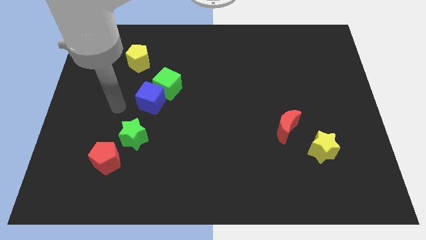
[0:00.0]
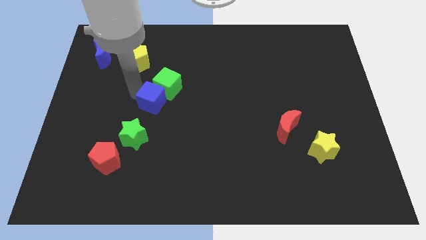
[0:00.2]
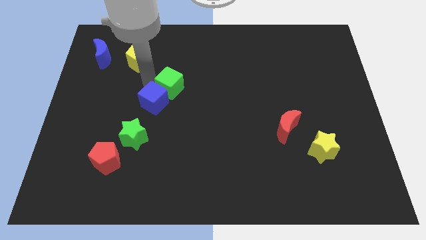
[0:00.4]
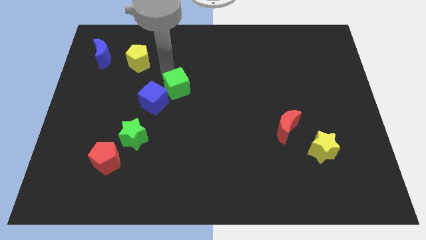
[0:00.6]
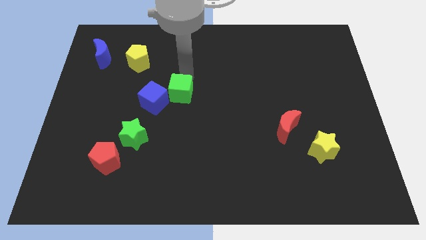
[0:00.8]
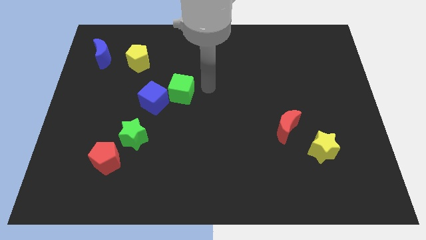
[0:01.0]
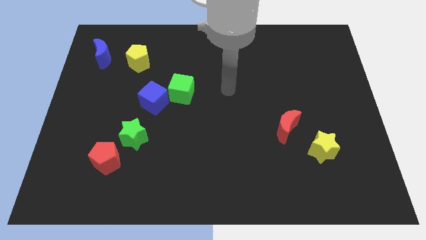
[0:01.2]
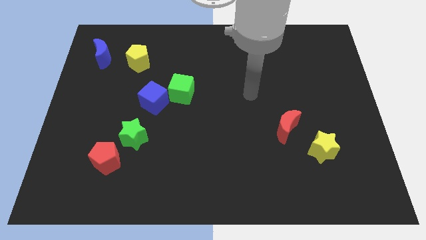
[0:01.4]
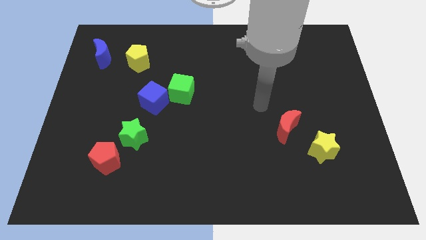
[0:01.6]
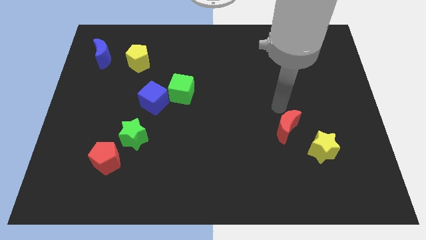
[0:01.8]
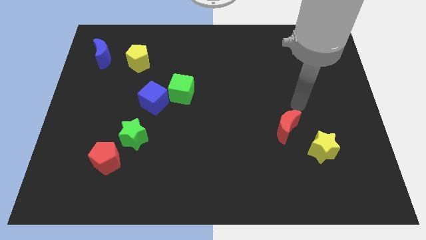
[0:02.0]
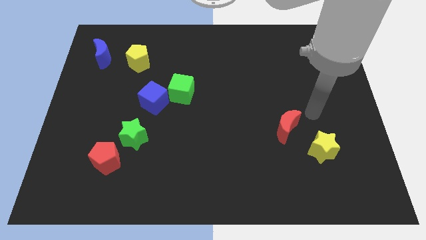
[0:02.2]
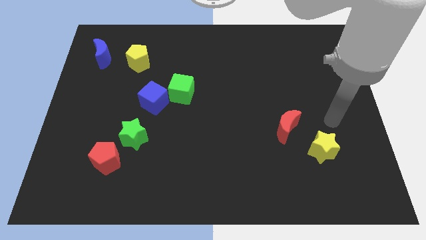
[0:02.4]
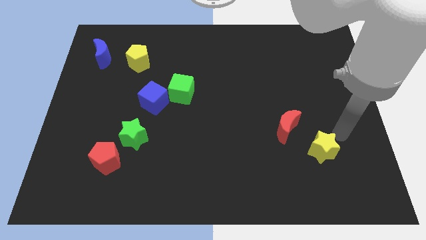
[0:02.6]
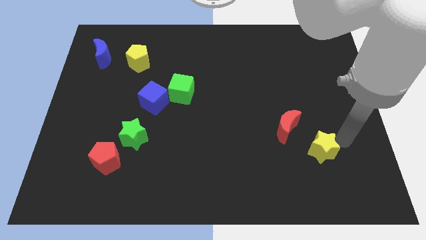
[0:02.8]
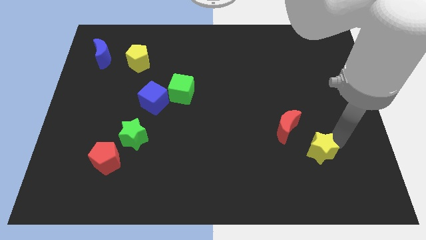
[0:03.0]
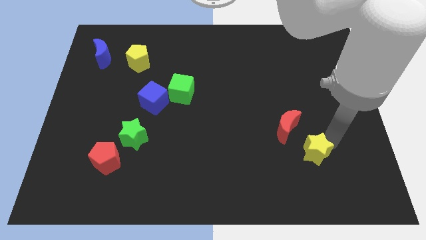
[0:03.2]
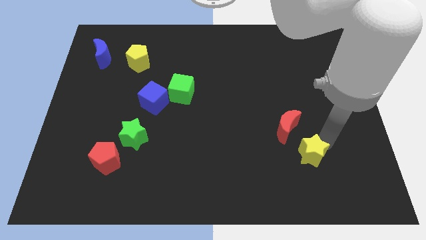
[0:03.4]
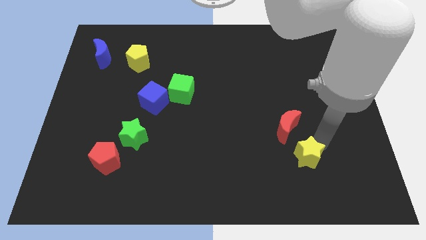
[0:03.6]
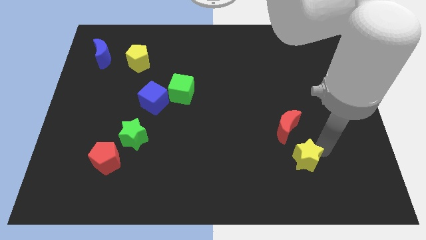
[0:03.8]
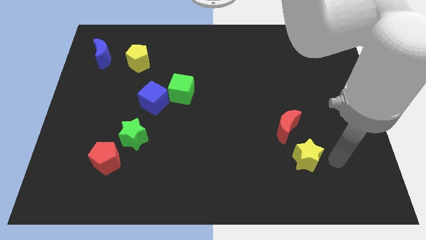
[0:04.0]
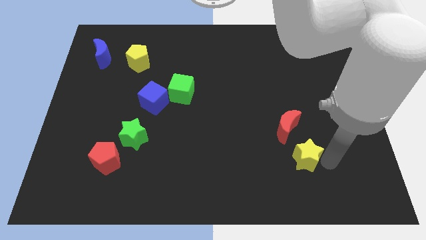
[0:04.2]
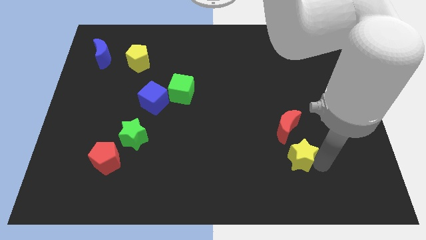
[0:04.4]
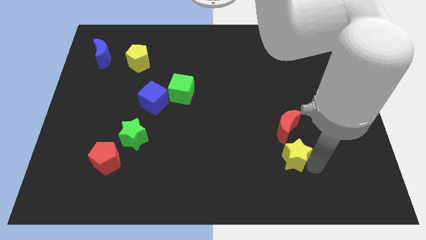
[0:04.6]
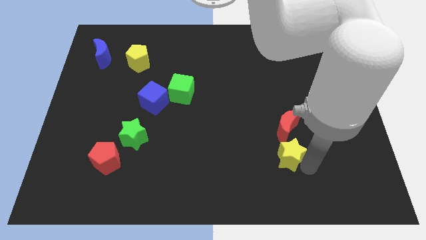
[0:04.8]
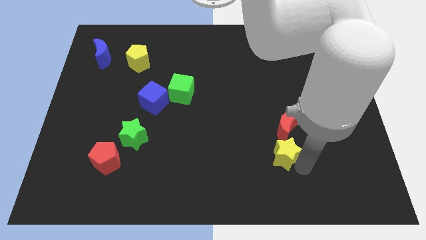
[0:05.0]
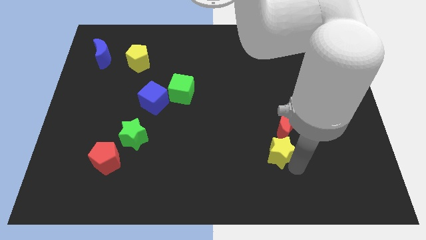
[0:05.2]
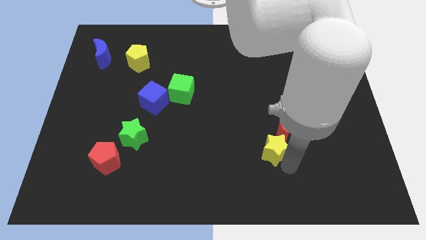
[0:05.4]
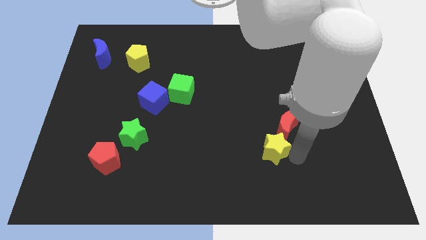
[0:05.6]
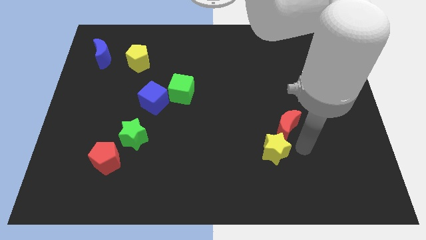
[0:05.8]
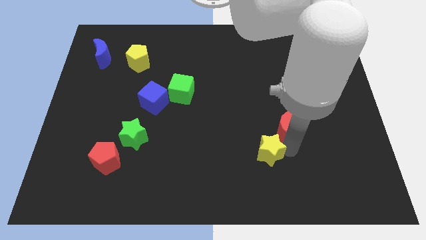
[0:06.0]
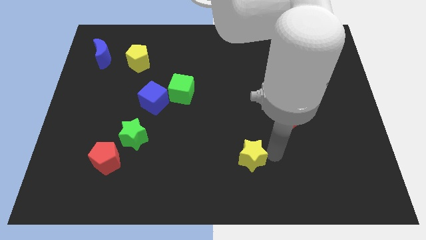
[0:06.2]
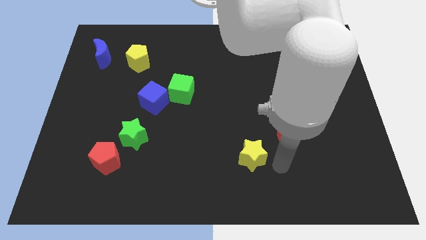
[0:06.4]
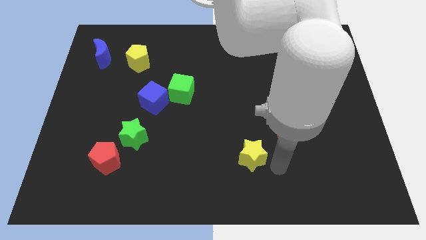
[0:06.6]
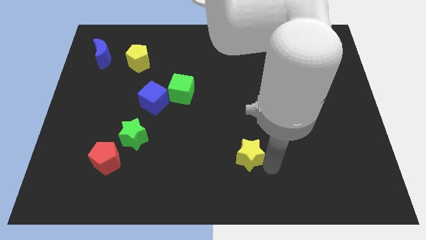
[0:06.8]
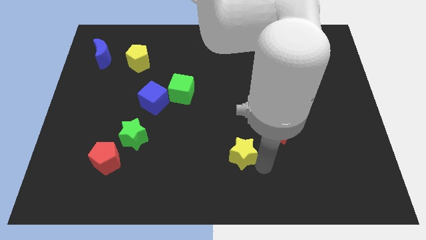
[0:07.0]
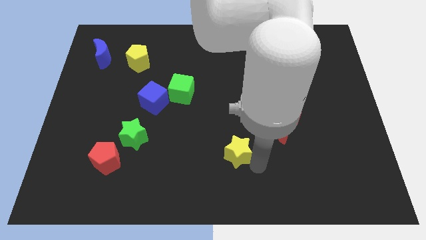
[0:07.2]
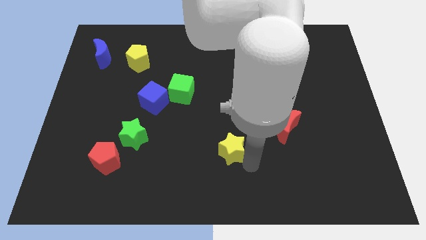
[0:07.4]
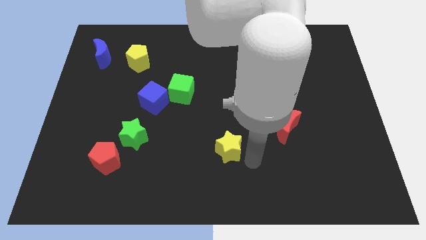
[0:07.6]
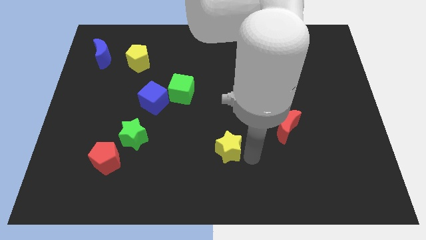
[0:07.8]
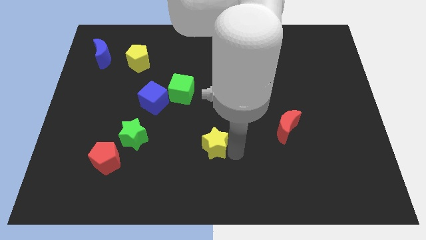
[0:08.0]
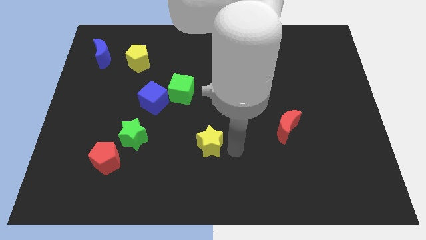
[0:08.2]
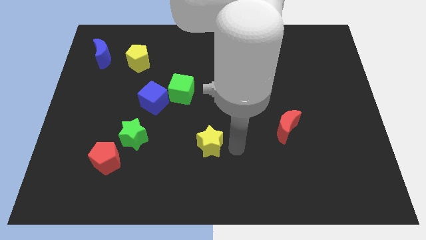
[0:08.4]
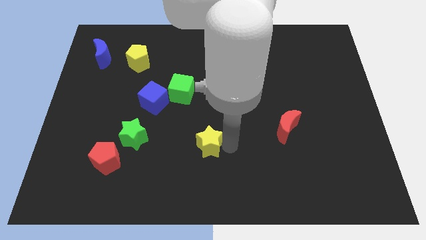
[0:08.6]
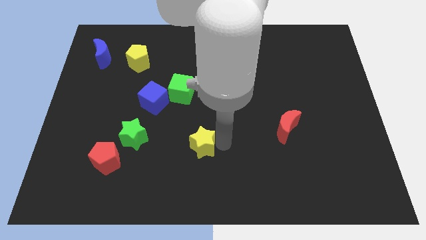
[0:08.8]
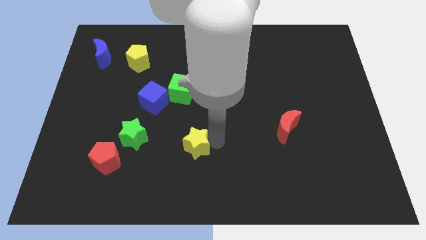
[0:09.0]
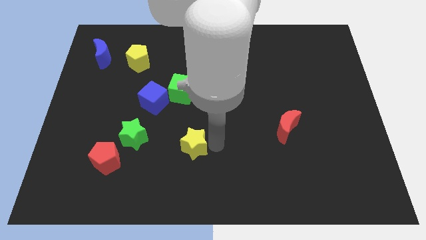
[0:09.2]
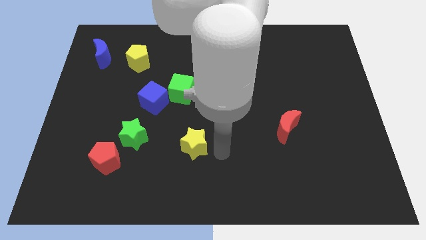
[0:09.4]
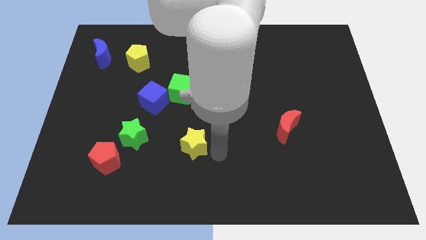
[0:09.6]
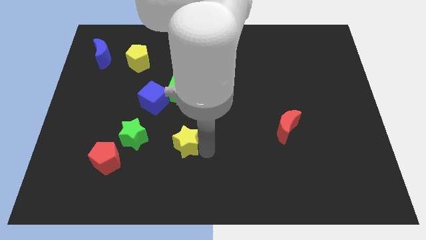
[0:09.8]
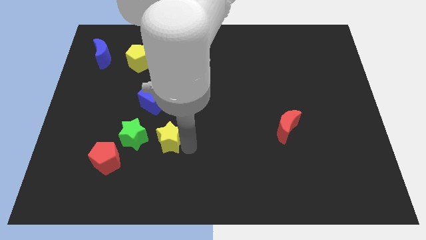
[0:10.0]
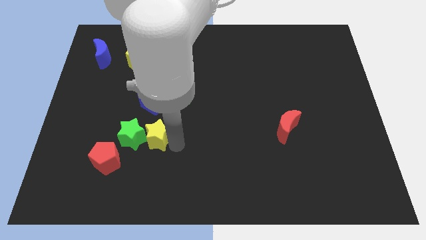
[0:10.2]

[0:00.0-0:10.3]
push the yellow star to the green star

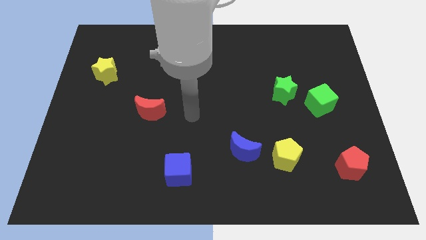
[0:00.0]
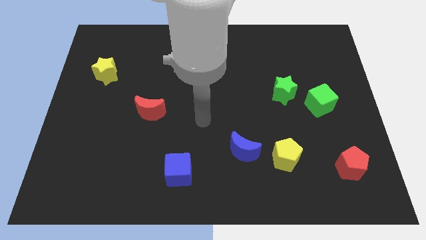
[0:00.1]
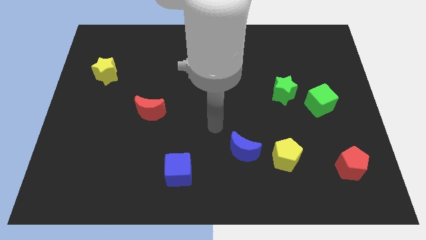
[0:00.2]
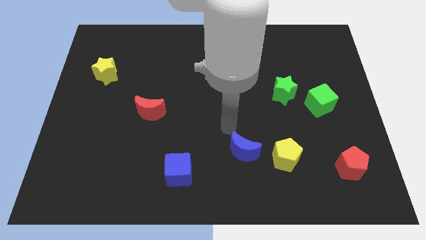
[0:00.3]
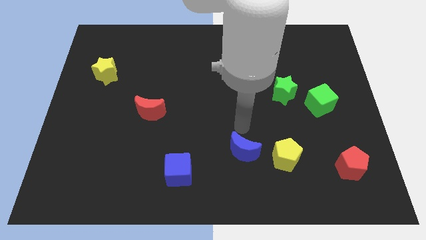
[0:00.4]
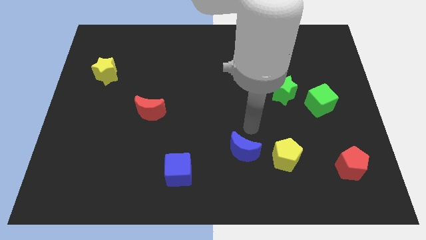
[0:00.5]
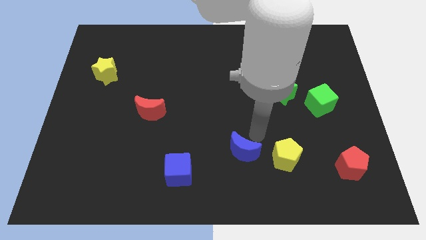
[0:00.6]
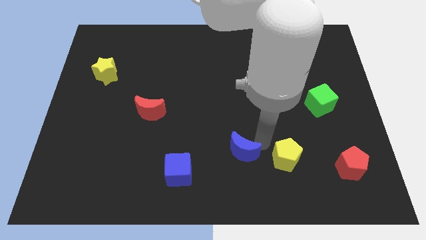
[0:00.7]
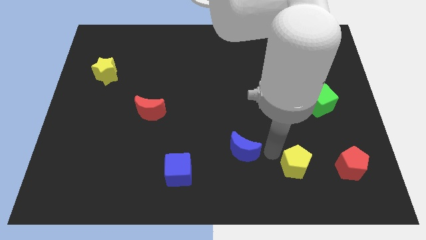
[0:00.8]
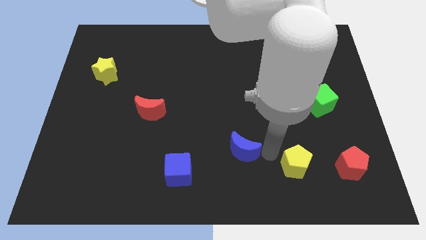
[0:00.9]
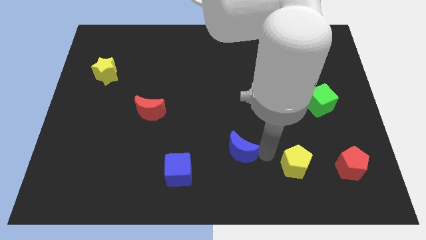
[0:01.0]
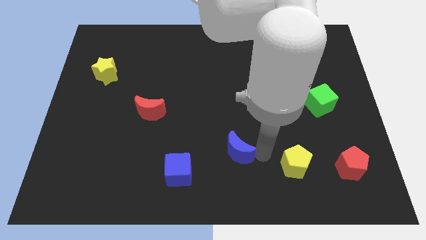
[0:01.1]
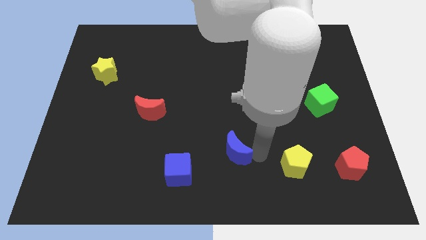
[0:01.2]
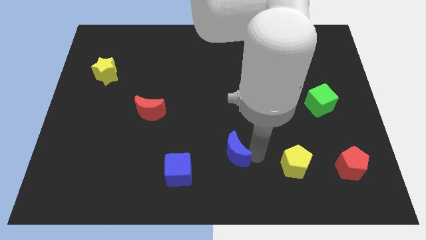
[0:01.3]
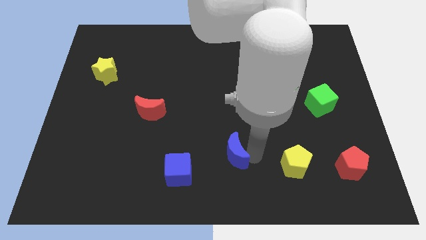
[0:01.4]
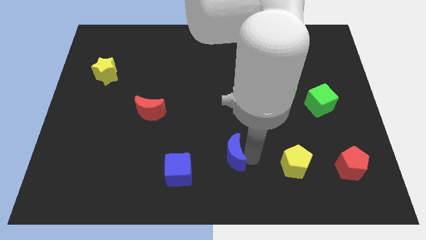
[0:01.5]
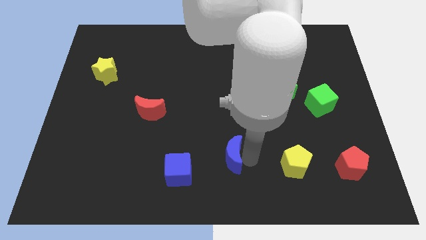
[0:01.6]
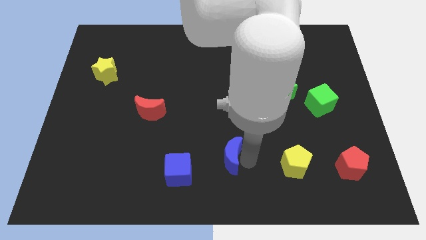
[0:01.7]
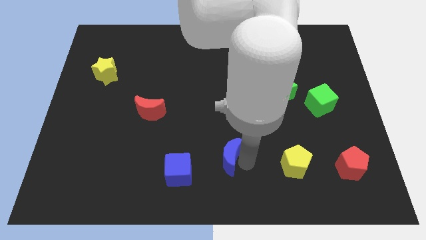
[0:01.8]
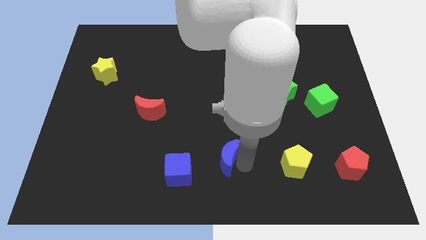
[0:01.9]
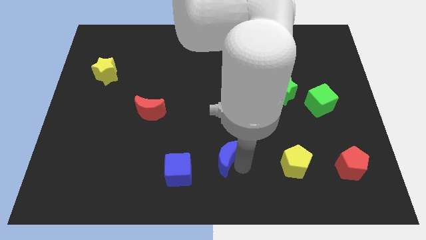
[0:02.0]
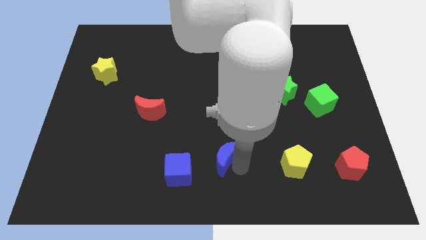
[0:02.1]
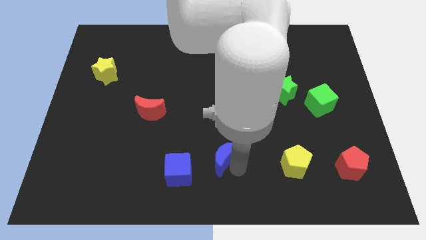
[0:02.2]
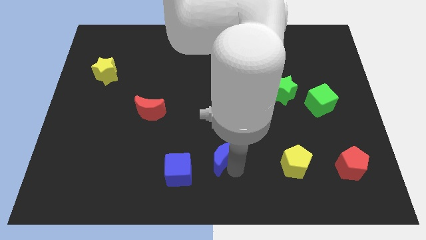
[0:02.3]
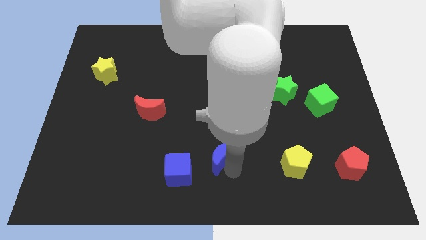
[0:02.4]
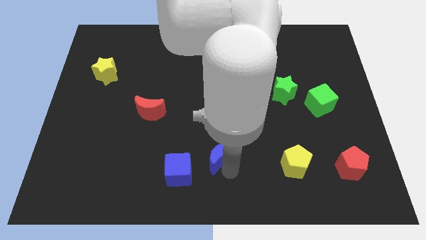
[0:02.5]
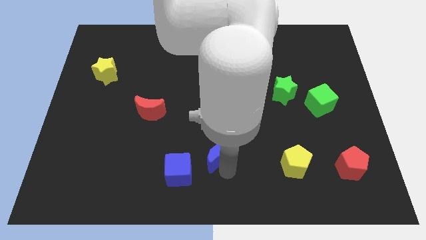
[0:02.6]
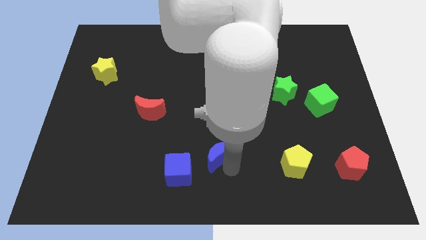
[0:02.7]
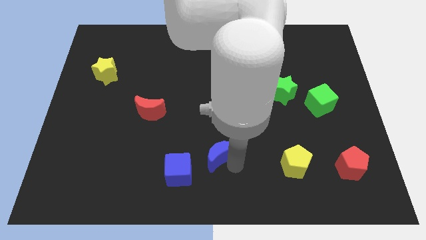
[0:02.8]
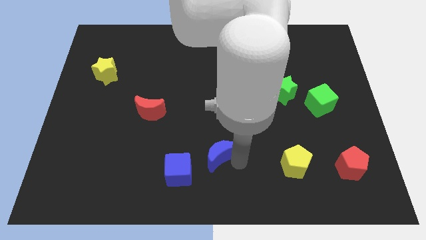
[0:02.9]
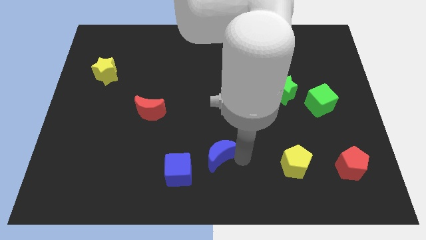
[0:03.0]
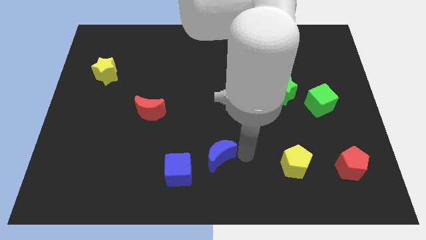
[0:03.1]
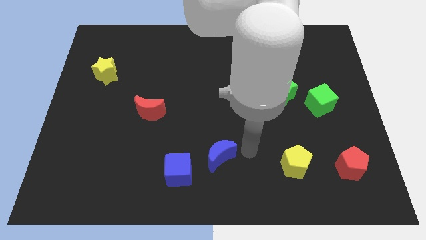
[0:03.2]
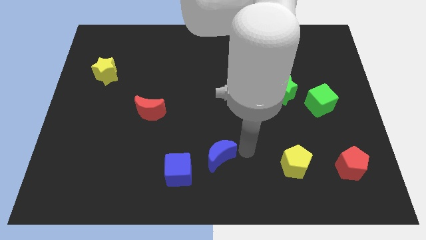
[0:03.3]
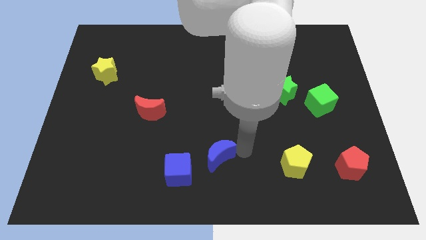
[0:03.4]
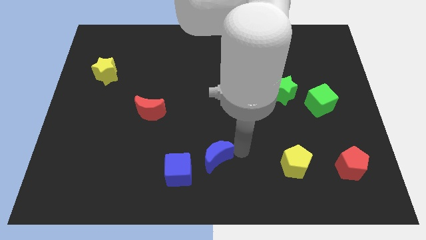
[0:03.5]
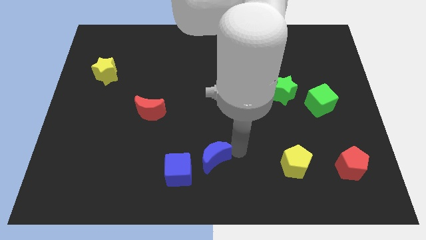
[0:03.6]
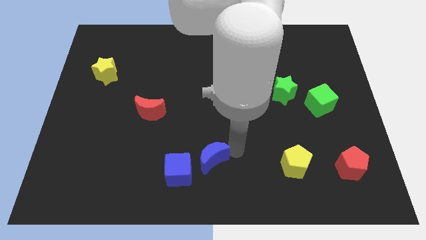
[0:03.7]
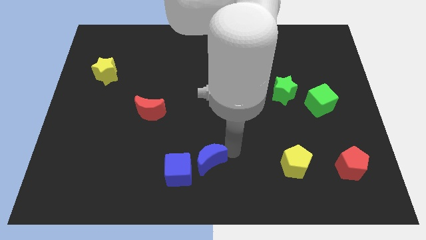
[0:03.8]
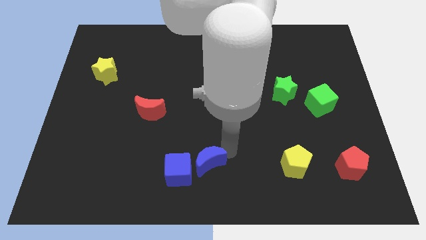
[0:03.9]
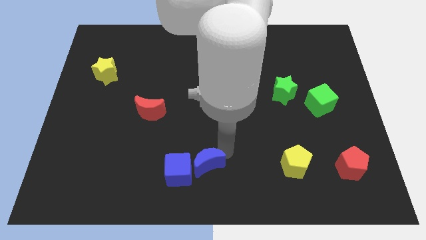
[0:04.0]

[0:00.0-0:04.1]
slide the blue moon towards the blue cube
